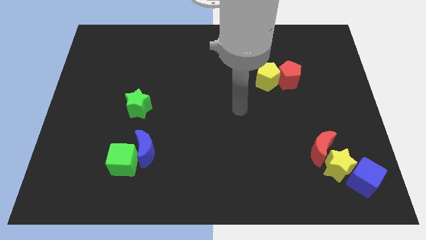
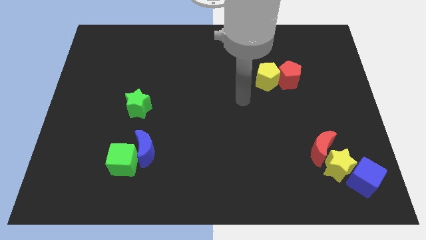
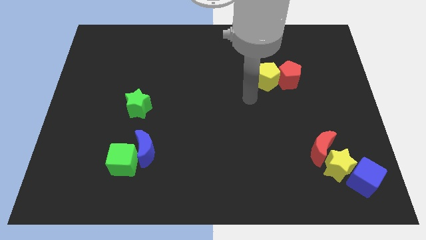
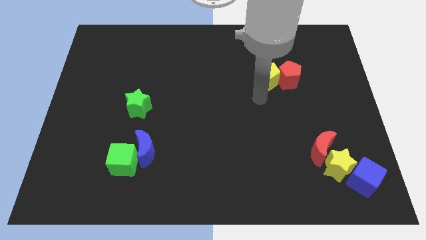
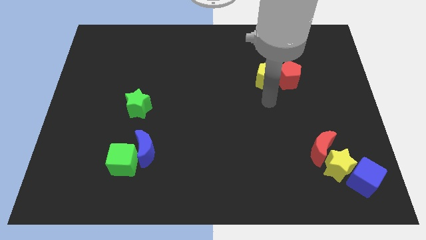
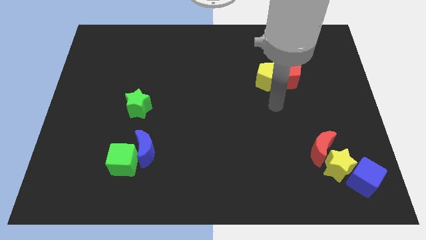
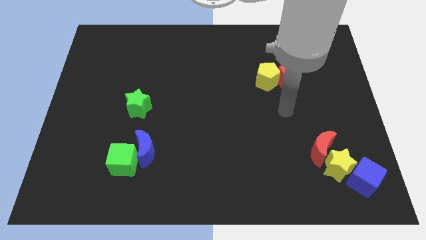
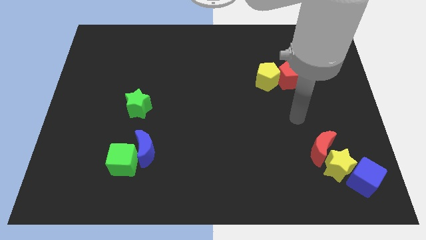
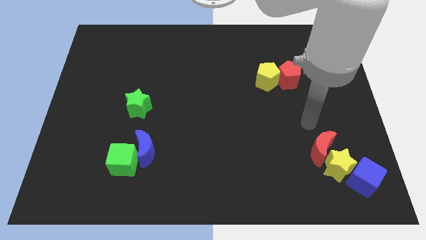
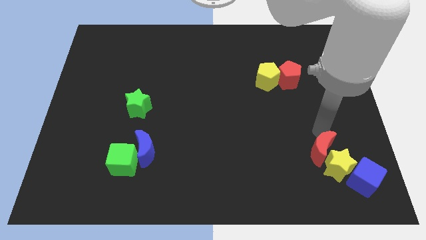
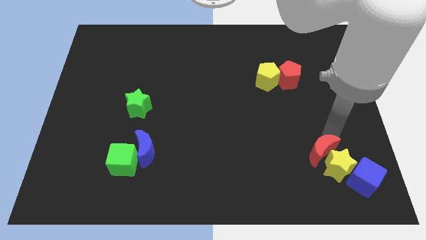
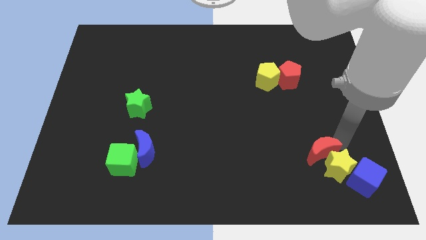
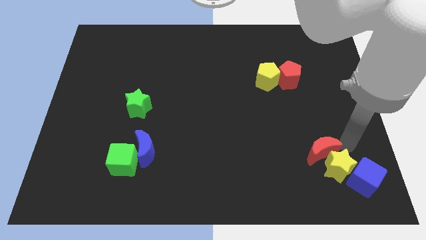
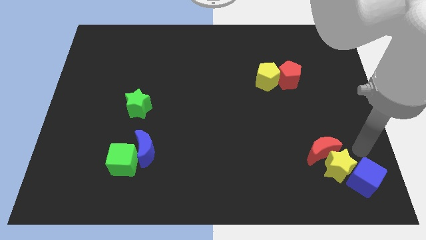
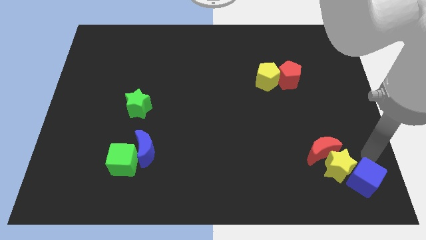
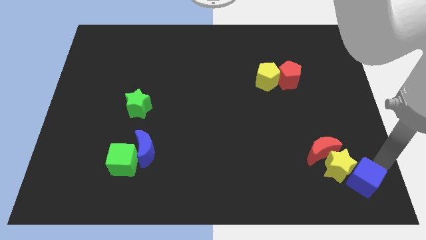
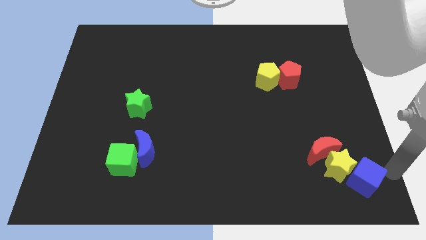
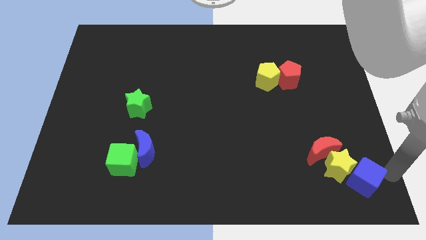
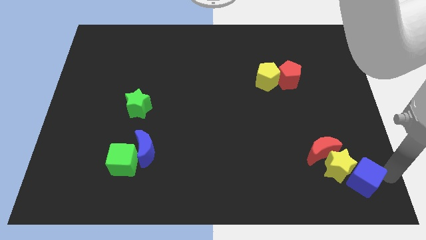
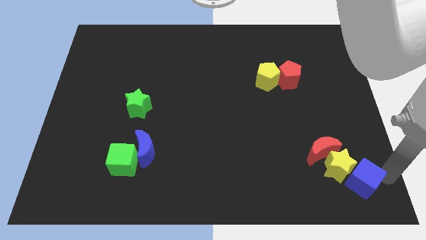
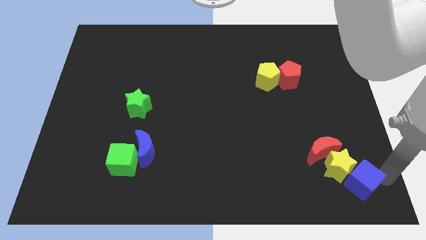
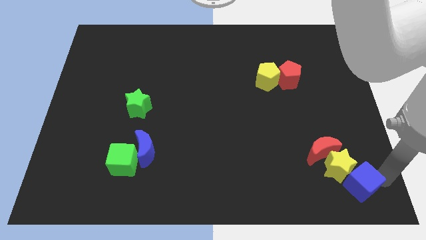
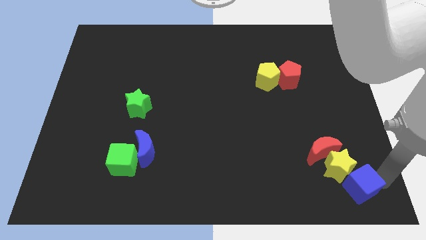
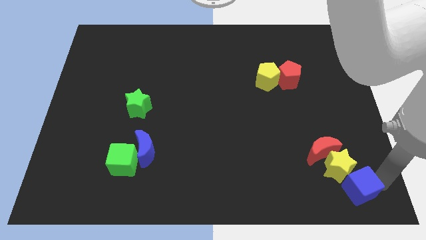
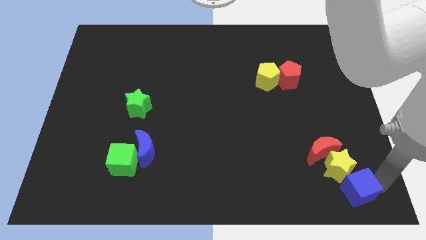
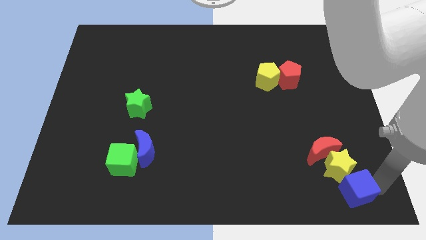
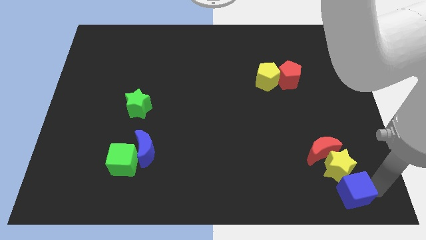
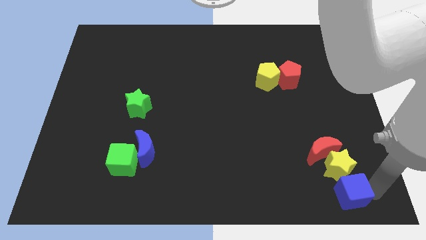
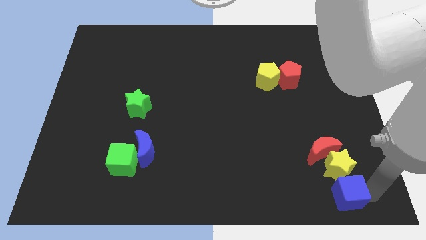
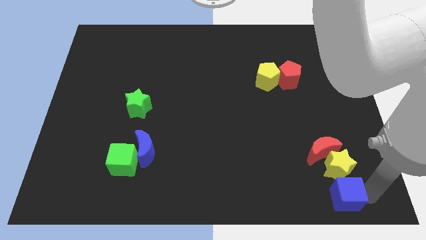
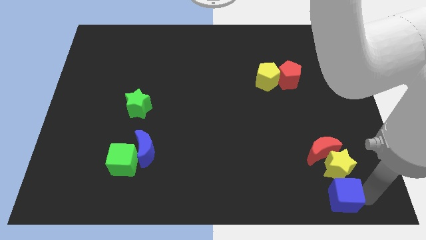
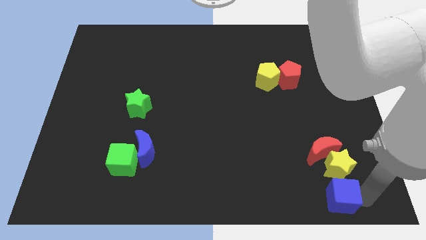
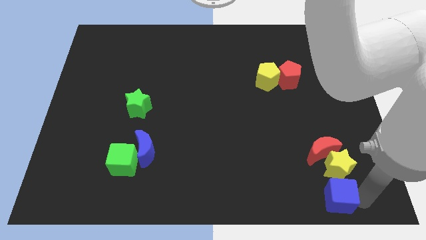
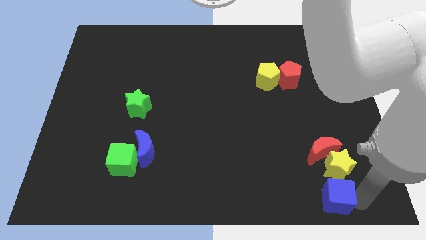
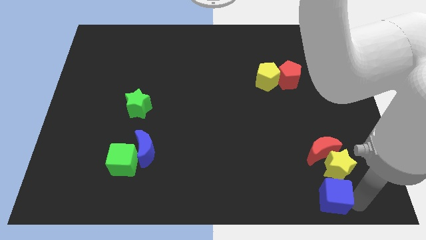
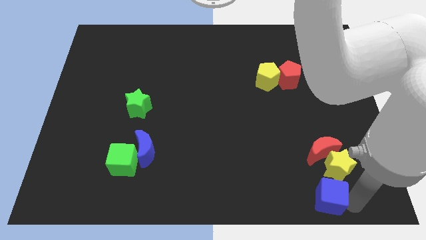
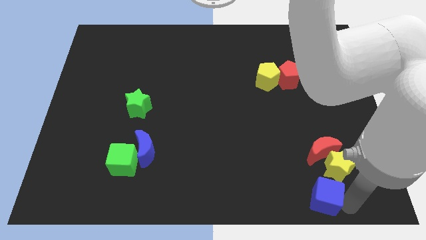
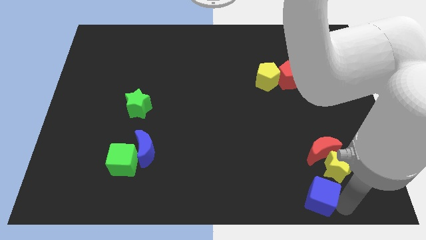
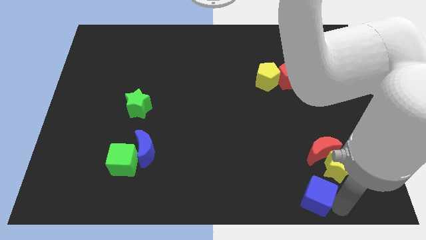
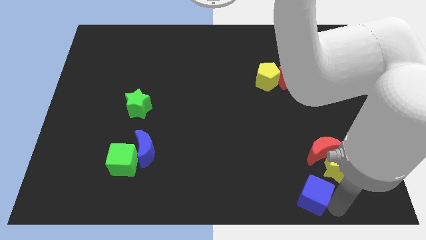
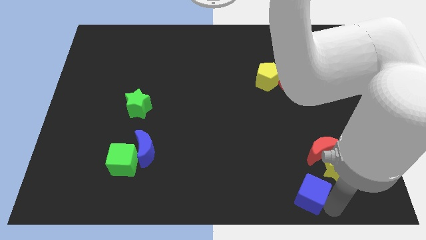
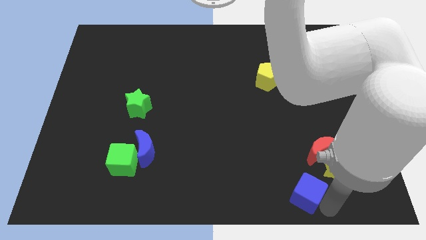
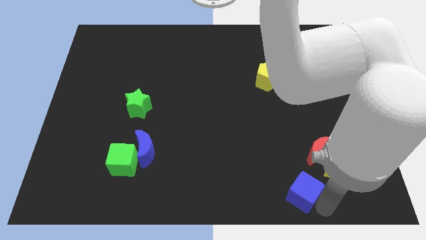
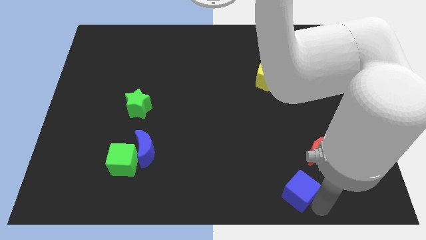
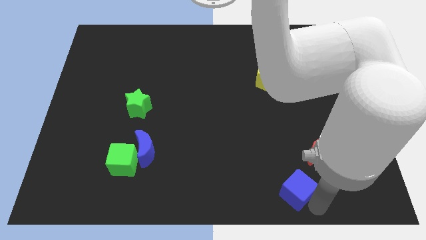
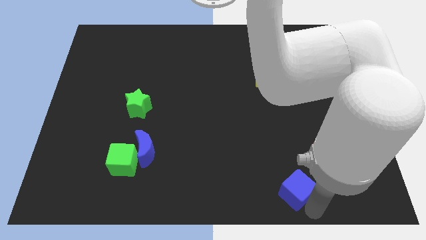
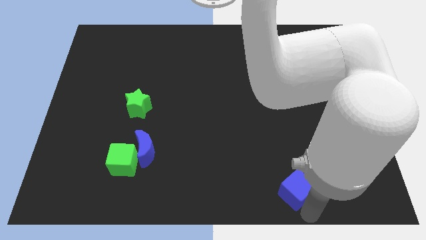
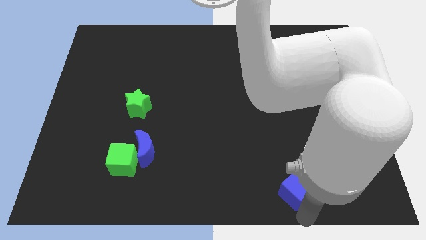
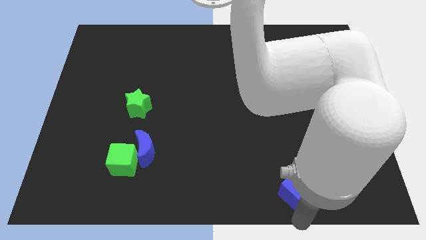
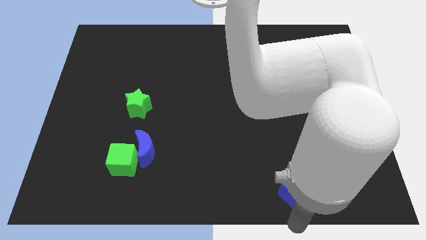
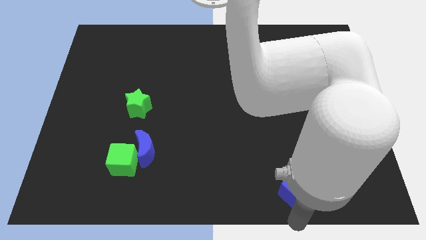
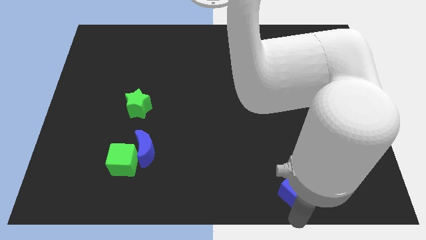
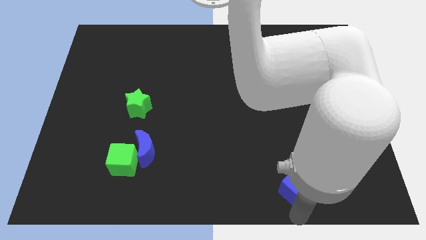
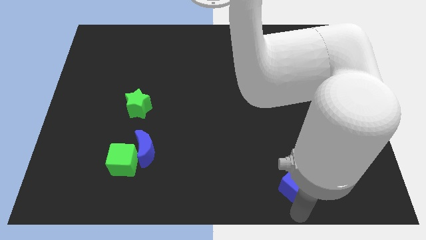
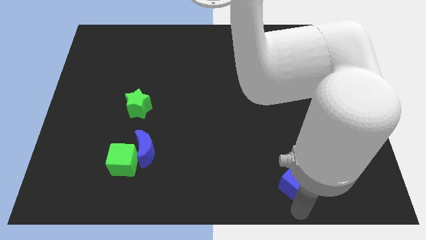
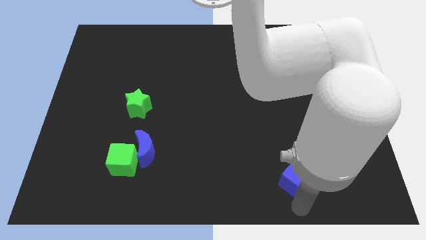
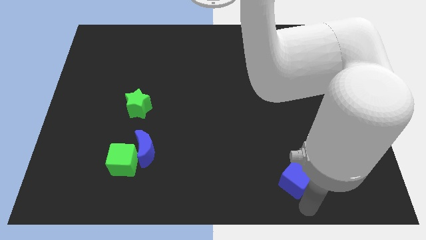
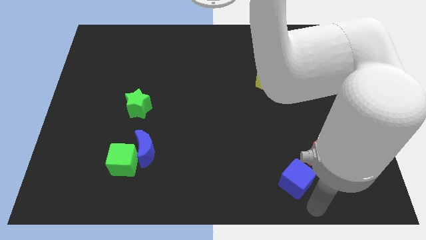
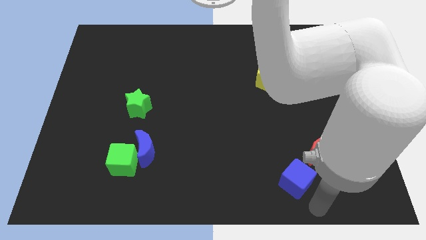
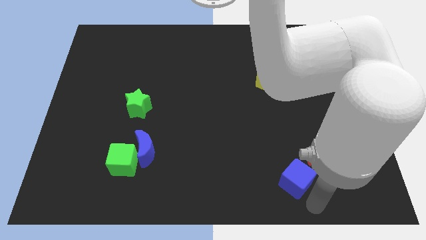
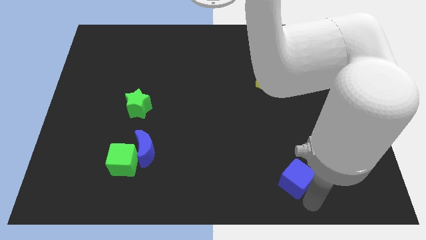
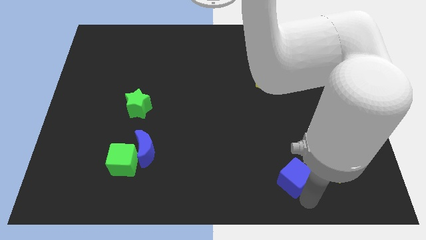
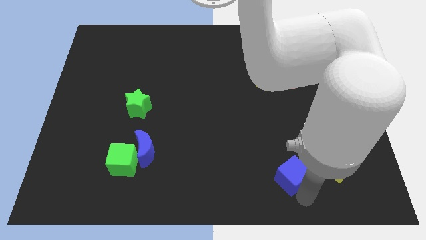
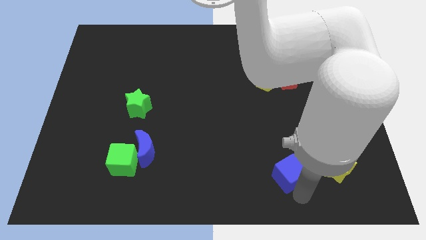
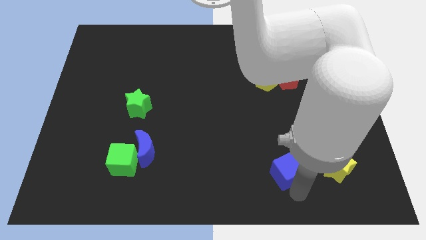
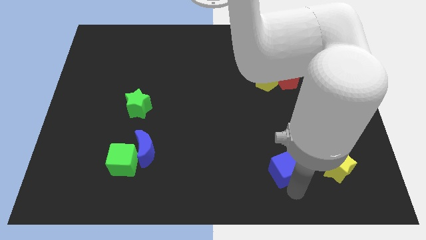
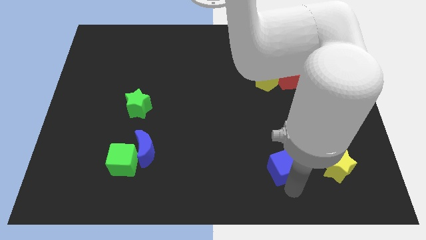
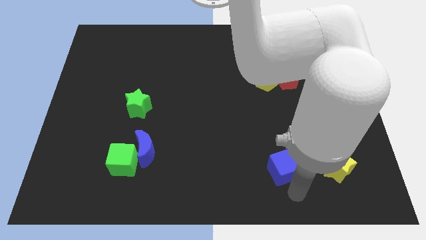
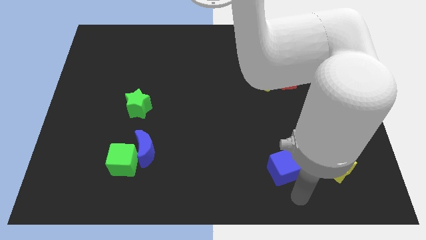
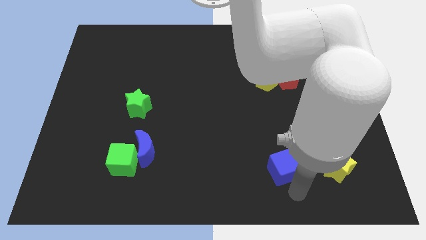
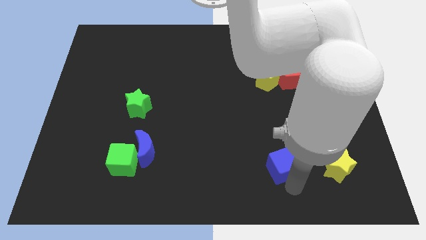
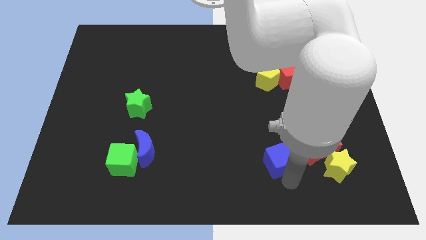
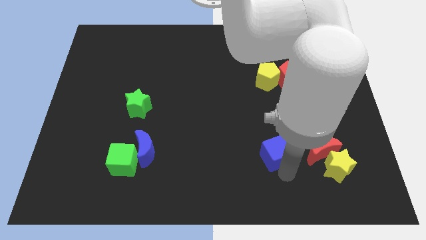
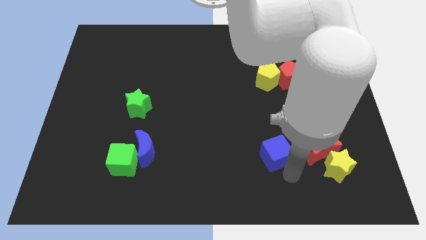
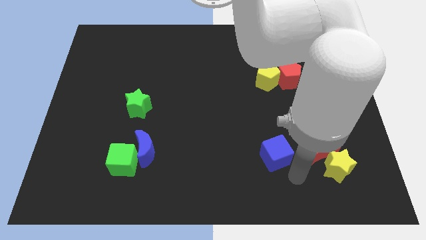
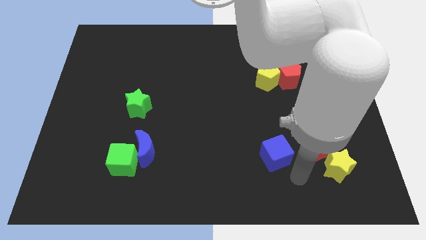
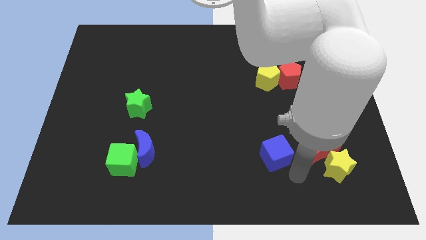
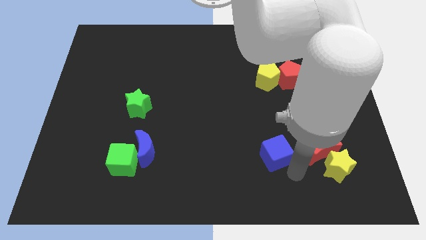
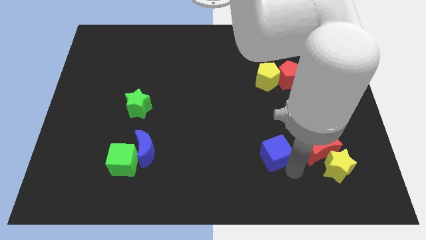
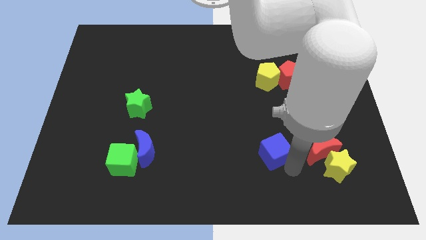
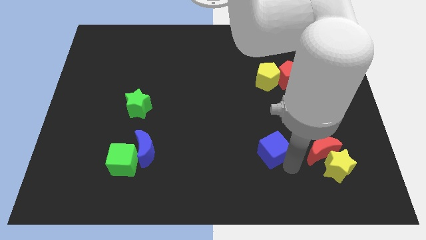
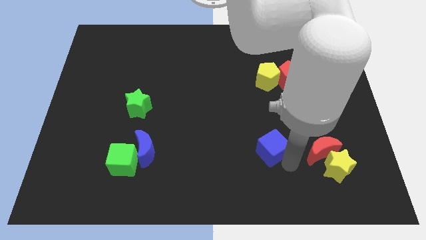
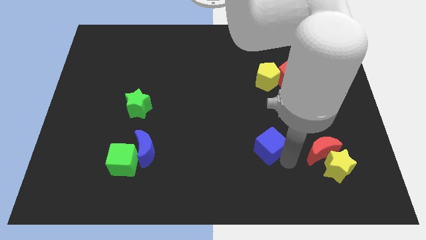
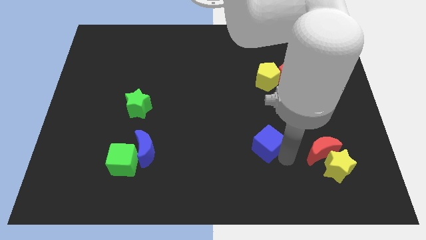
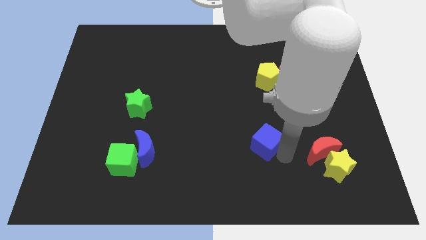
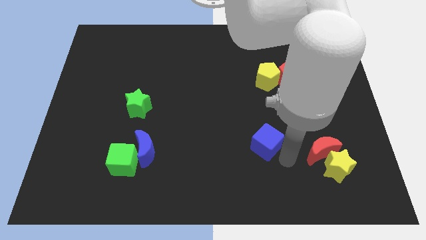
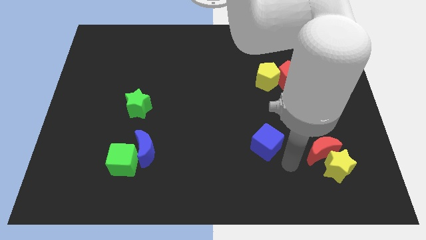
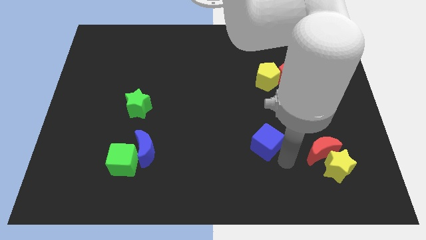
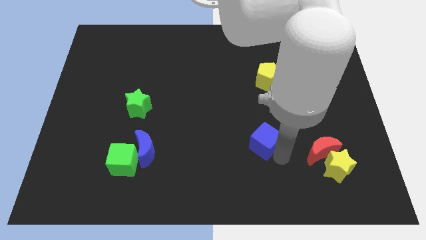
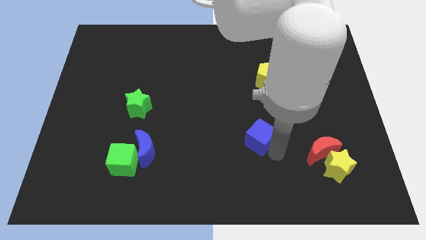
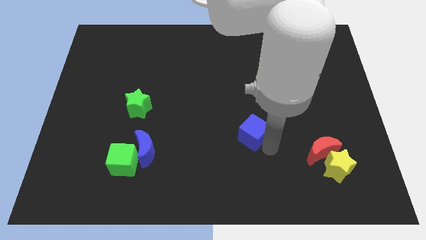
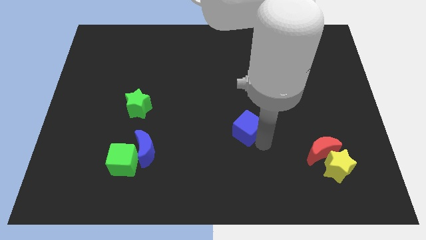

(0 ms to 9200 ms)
slide the blue cube to the center
